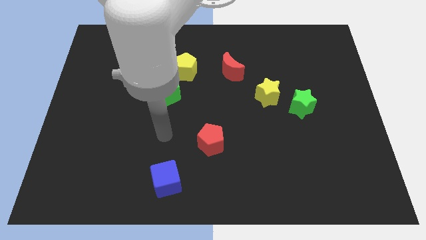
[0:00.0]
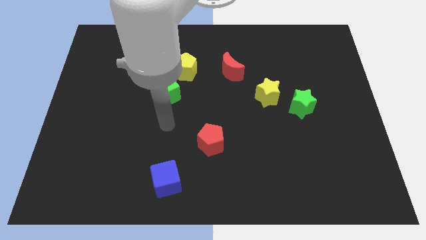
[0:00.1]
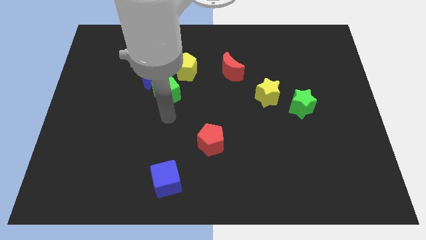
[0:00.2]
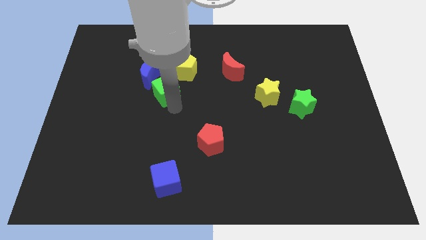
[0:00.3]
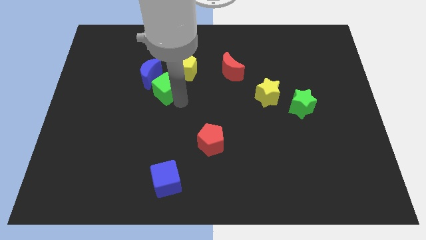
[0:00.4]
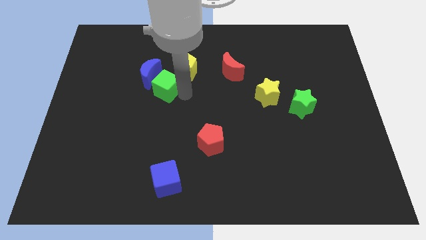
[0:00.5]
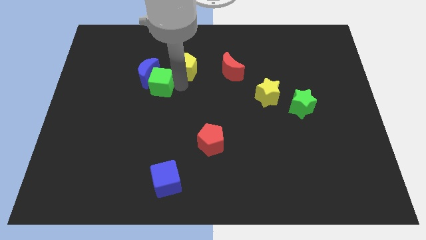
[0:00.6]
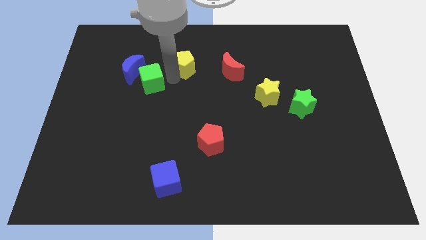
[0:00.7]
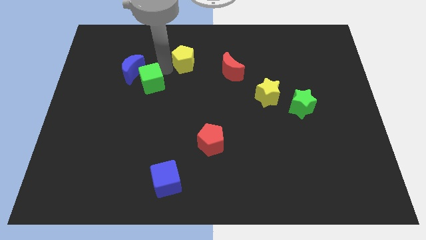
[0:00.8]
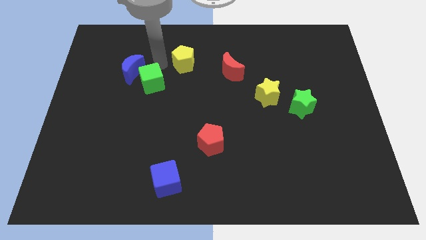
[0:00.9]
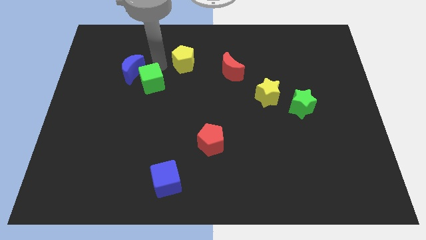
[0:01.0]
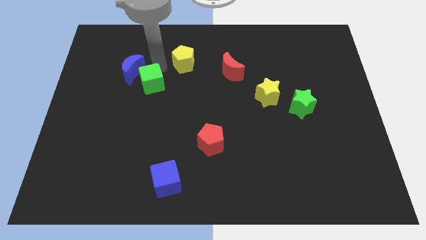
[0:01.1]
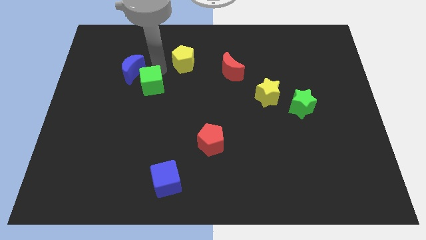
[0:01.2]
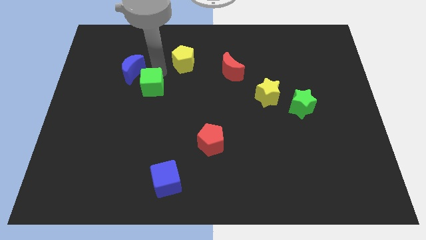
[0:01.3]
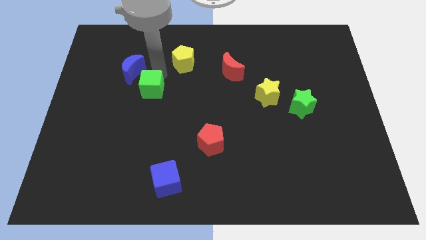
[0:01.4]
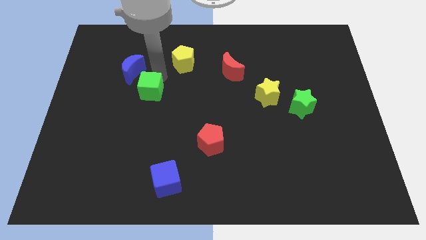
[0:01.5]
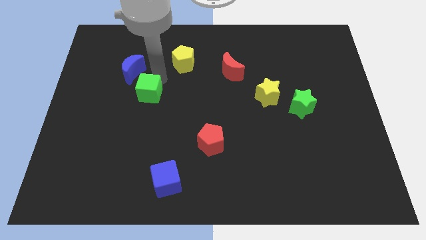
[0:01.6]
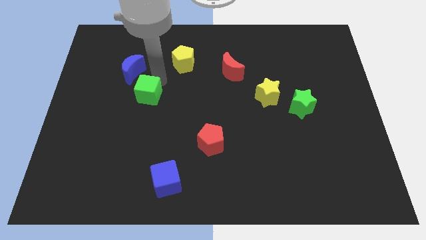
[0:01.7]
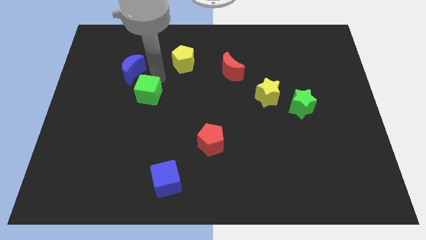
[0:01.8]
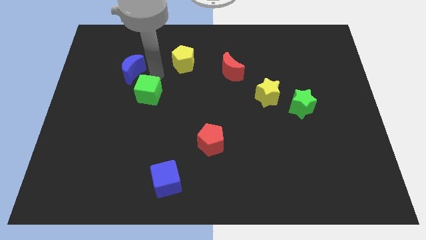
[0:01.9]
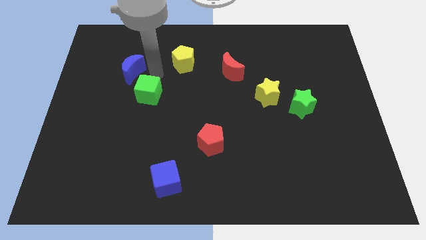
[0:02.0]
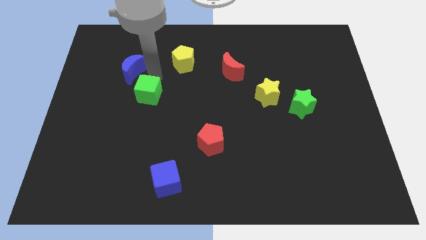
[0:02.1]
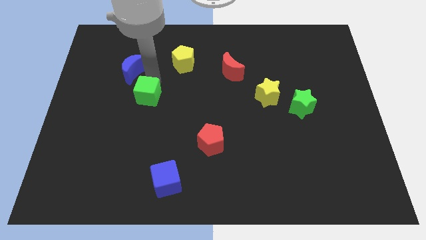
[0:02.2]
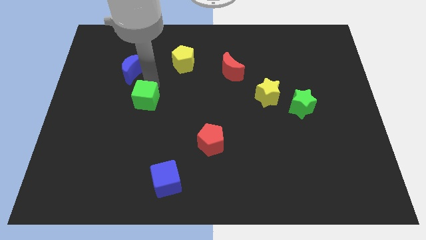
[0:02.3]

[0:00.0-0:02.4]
pull the green cube apart from the blue moon and yellow pentagon

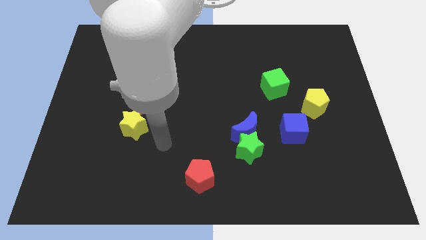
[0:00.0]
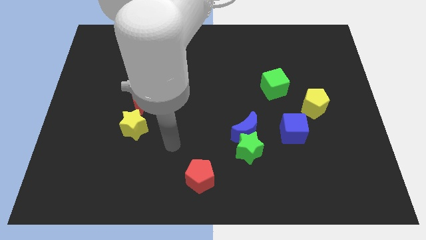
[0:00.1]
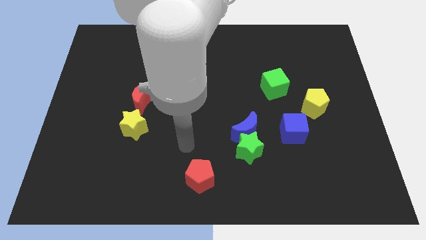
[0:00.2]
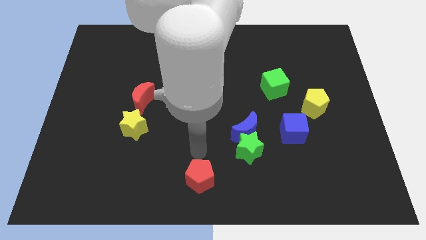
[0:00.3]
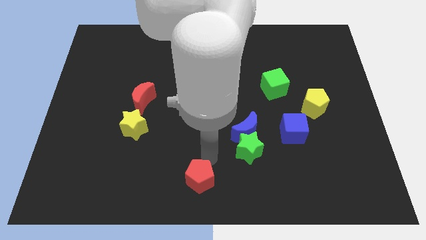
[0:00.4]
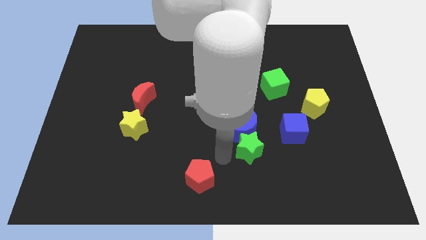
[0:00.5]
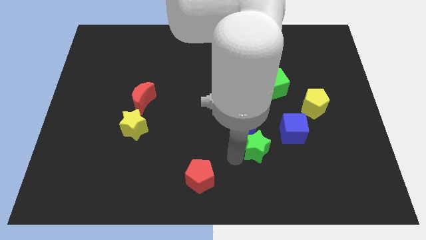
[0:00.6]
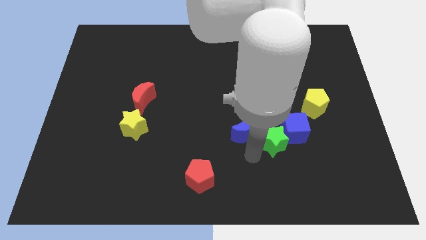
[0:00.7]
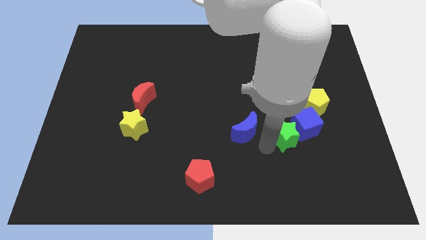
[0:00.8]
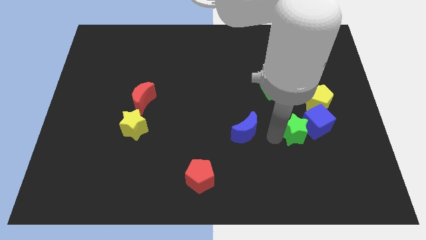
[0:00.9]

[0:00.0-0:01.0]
separate the blue moon from the green star

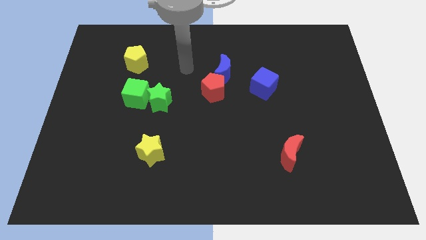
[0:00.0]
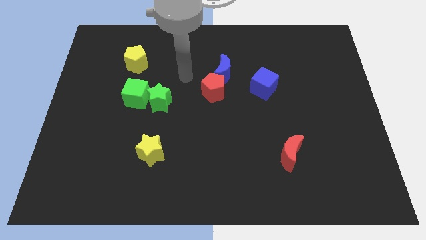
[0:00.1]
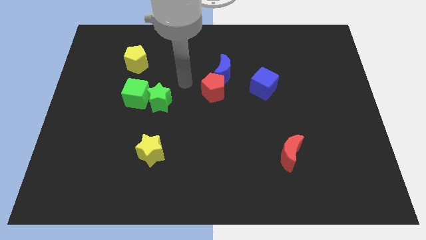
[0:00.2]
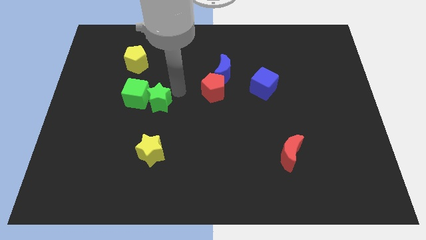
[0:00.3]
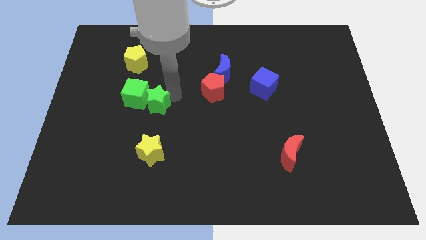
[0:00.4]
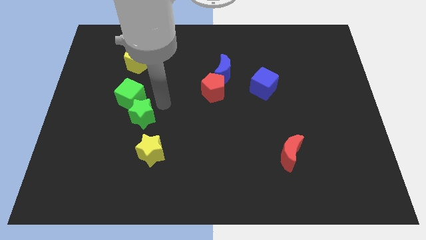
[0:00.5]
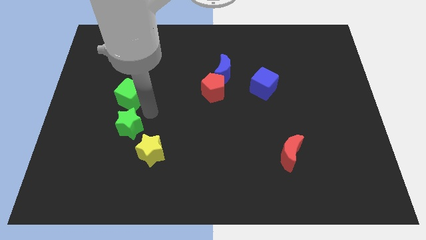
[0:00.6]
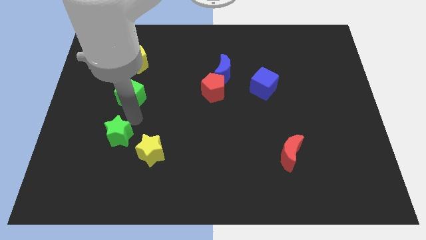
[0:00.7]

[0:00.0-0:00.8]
move the green cube away from the green star

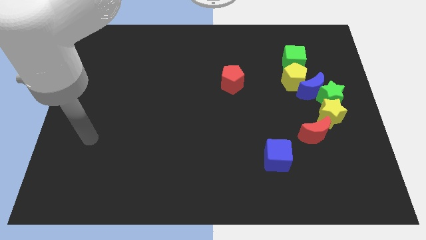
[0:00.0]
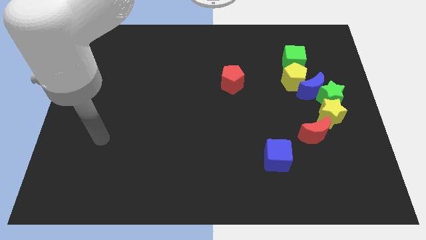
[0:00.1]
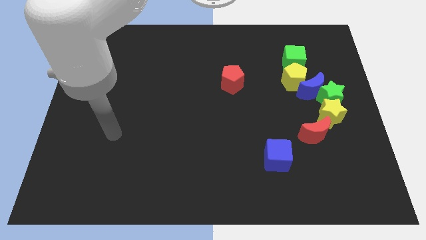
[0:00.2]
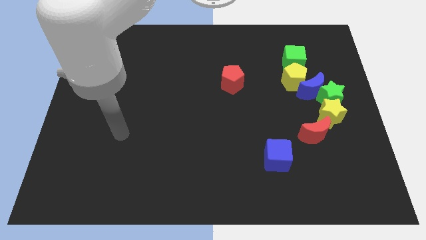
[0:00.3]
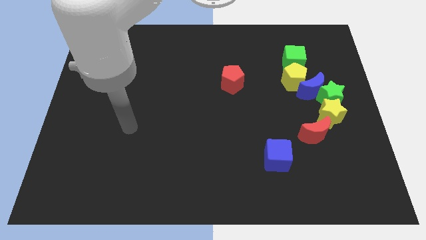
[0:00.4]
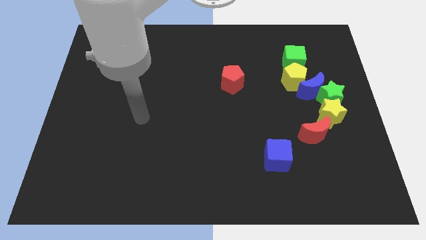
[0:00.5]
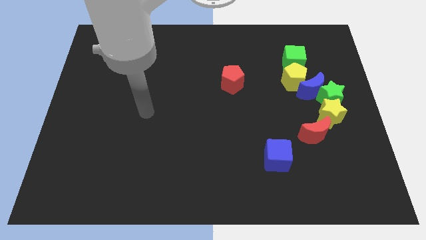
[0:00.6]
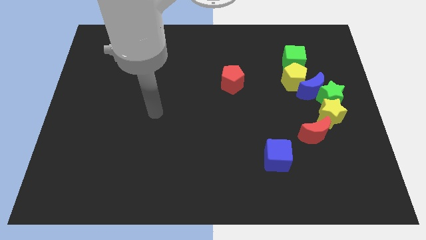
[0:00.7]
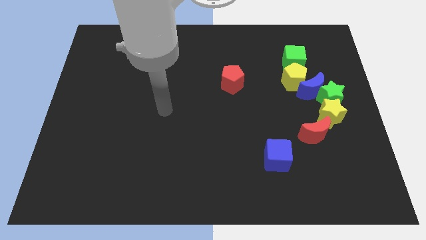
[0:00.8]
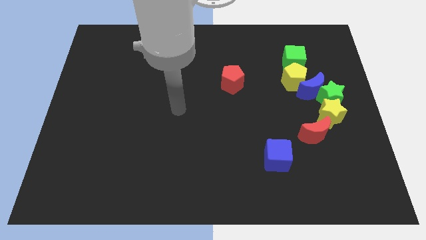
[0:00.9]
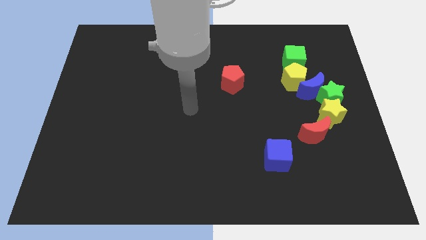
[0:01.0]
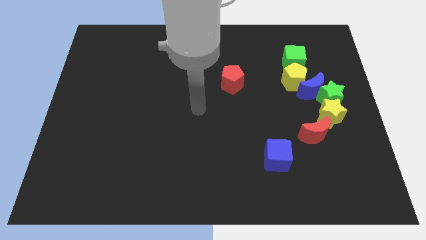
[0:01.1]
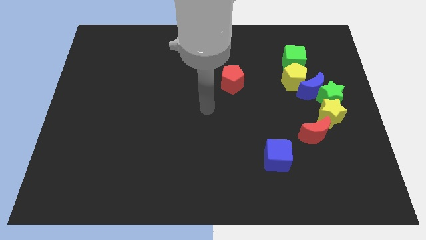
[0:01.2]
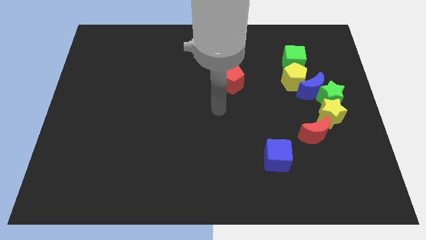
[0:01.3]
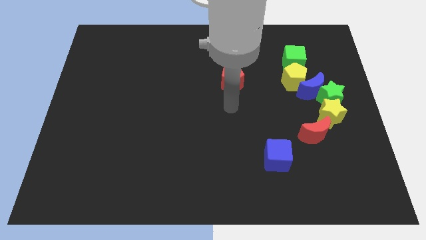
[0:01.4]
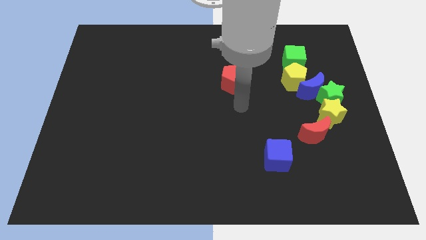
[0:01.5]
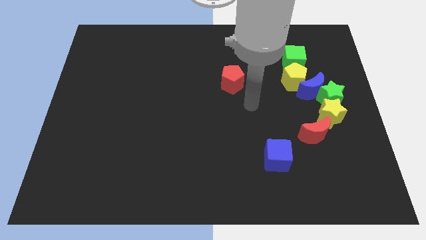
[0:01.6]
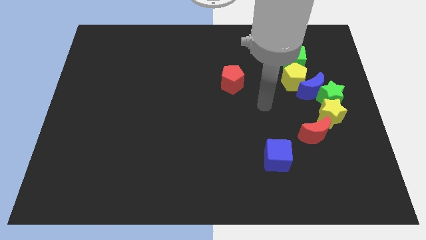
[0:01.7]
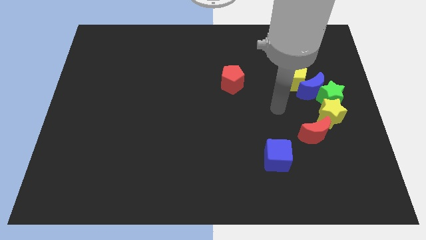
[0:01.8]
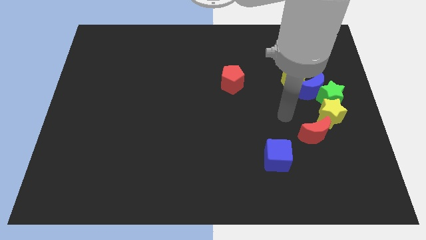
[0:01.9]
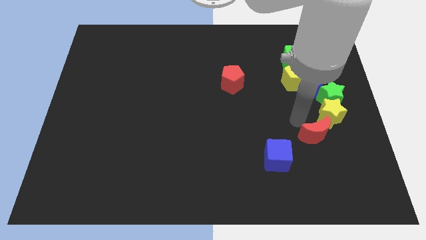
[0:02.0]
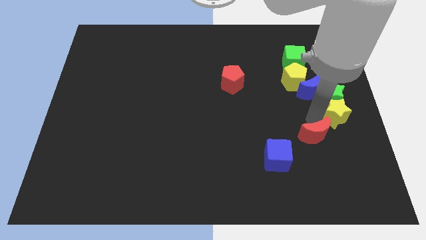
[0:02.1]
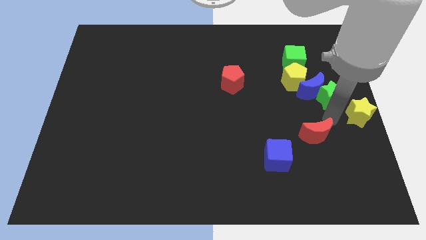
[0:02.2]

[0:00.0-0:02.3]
pull the red moon apart from the yellow star

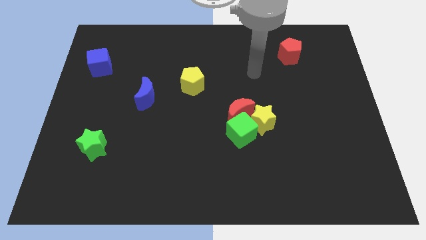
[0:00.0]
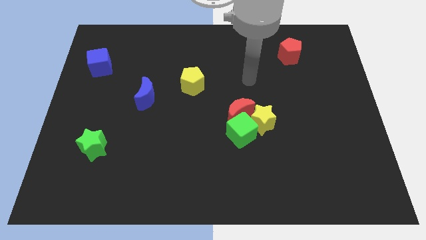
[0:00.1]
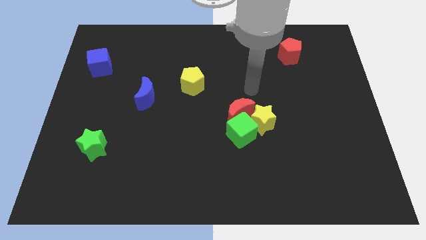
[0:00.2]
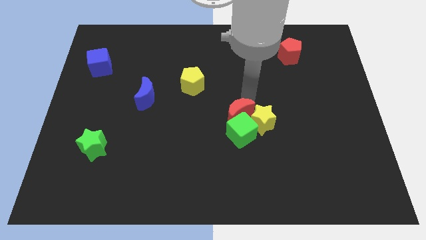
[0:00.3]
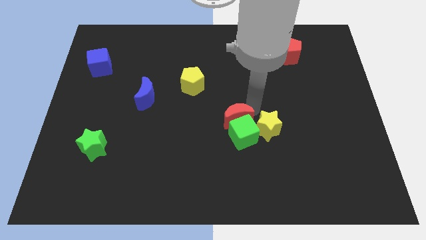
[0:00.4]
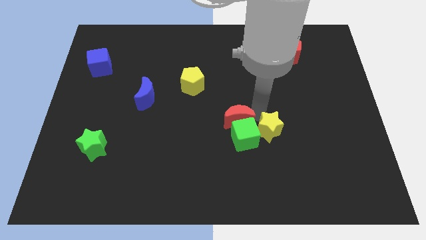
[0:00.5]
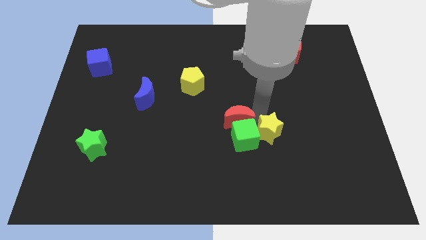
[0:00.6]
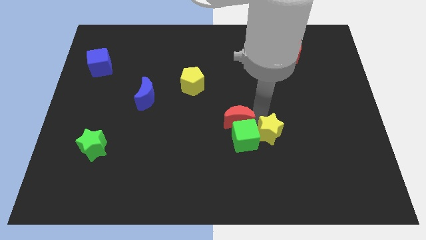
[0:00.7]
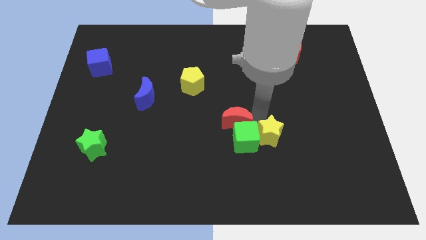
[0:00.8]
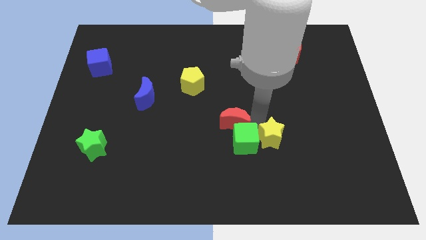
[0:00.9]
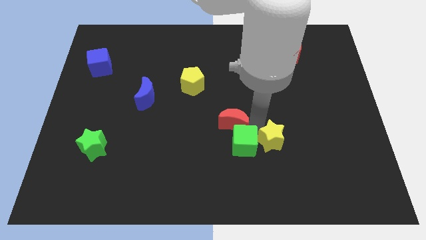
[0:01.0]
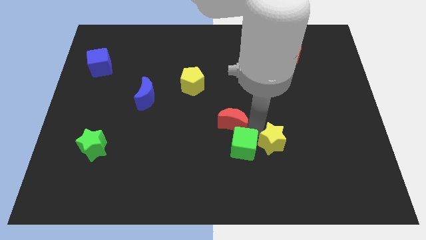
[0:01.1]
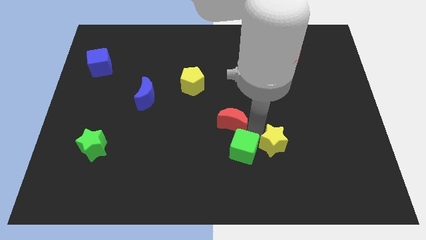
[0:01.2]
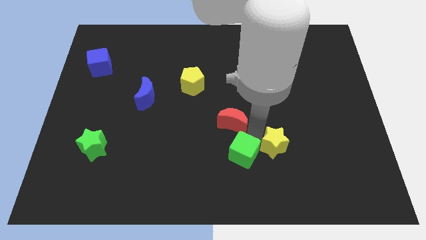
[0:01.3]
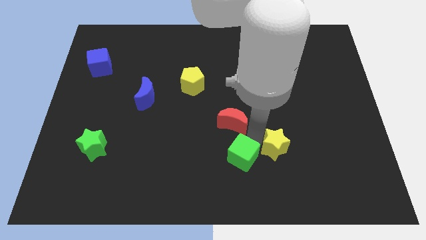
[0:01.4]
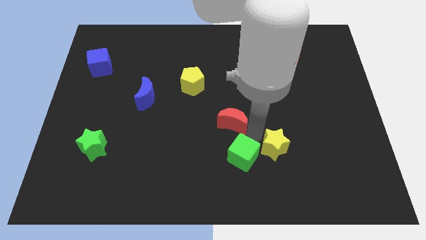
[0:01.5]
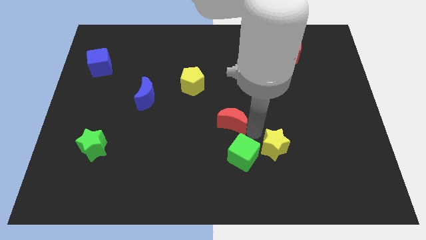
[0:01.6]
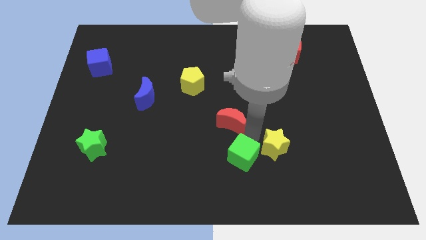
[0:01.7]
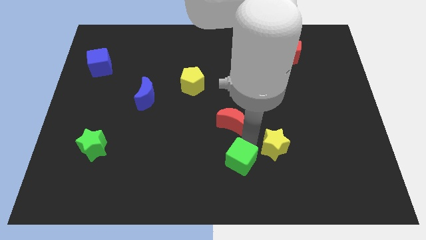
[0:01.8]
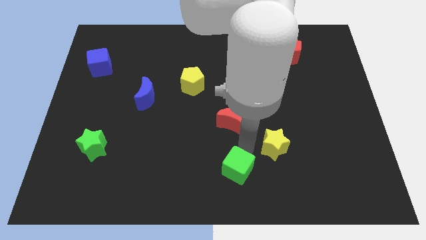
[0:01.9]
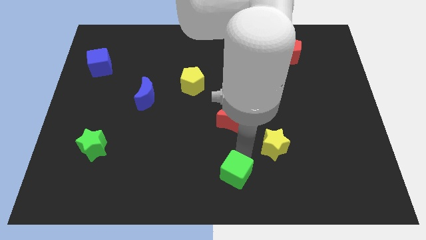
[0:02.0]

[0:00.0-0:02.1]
move the green cube away from the red moon and yellow star

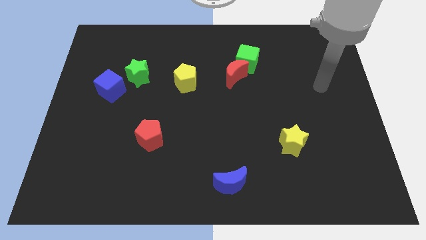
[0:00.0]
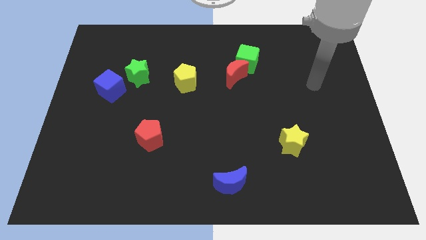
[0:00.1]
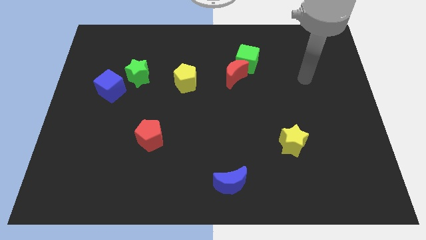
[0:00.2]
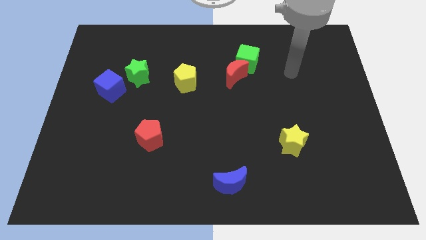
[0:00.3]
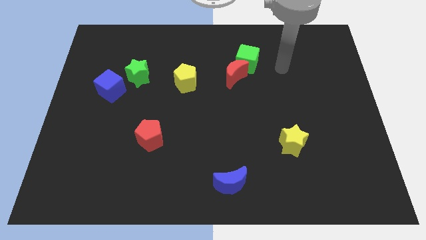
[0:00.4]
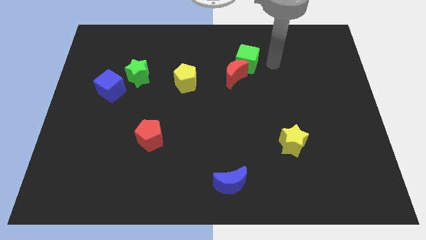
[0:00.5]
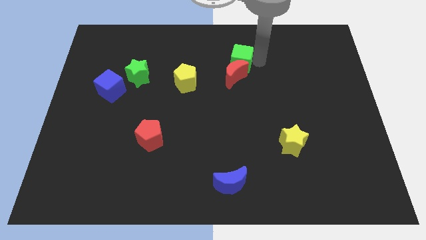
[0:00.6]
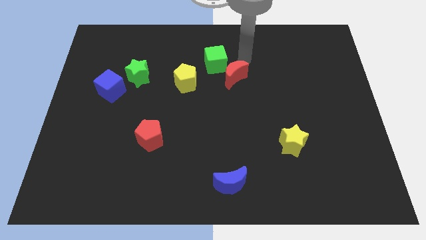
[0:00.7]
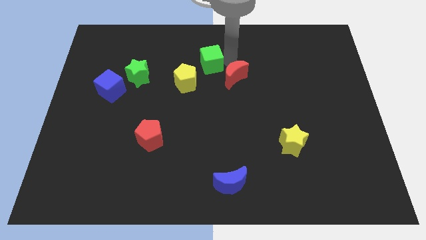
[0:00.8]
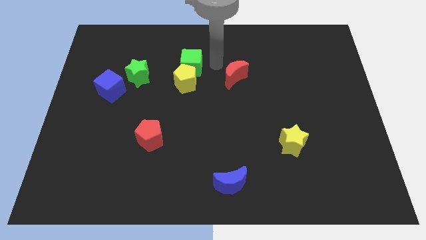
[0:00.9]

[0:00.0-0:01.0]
separate the red moon from the green cube
